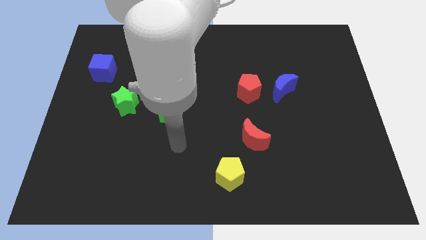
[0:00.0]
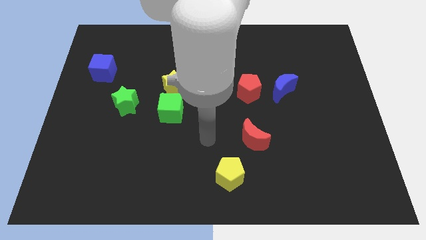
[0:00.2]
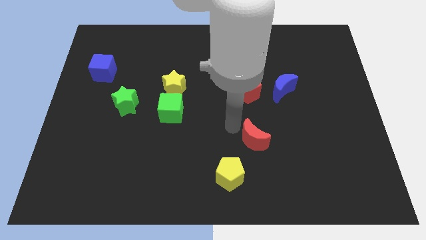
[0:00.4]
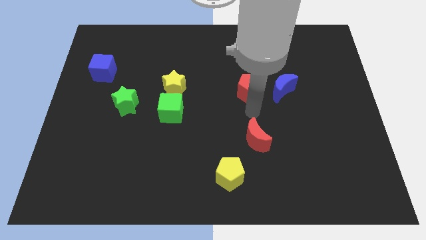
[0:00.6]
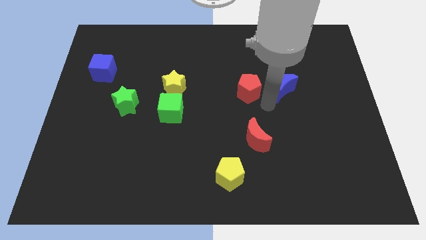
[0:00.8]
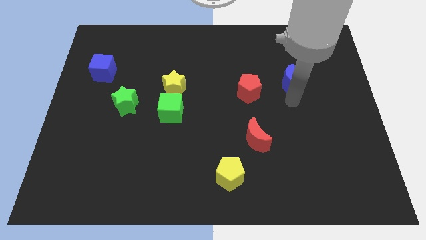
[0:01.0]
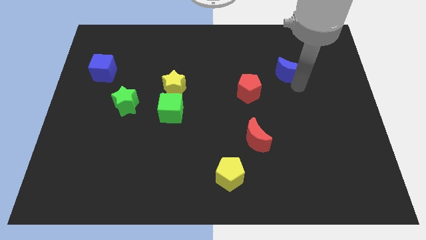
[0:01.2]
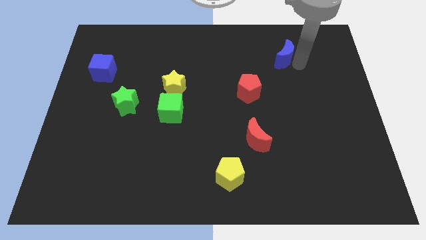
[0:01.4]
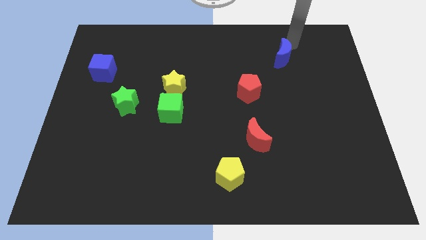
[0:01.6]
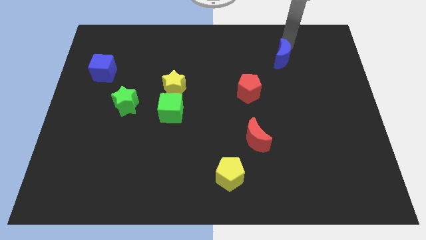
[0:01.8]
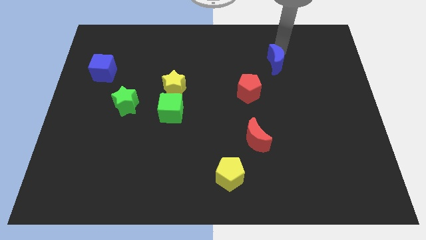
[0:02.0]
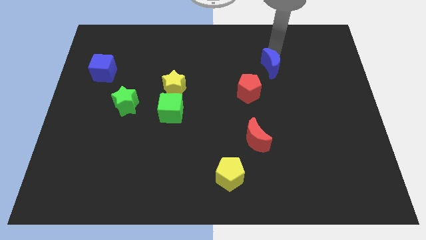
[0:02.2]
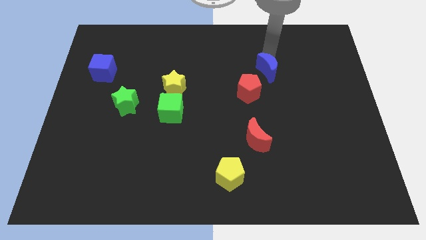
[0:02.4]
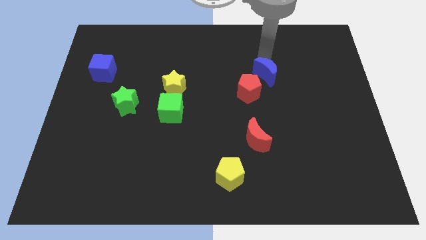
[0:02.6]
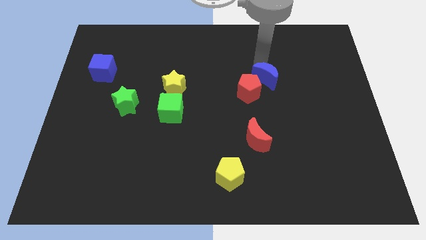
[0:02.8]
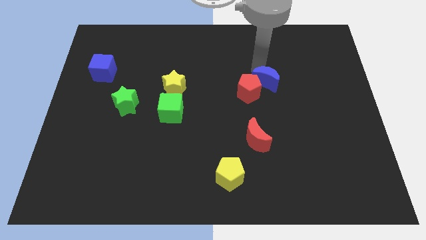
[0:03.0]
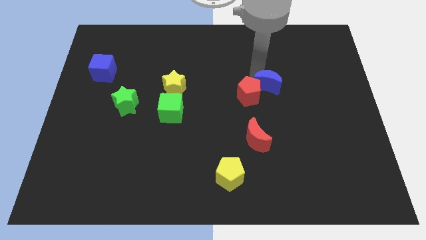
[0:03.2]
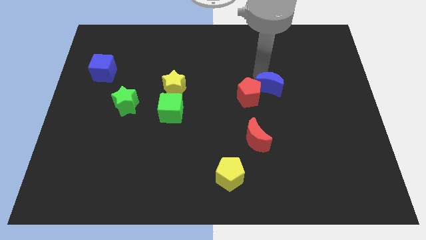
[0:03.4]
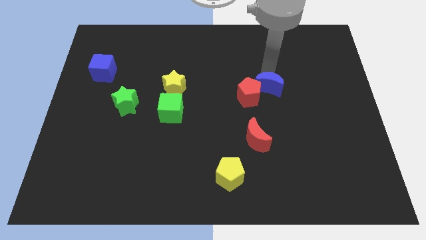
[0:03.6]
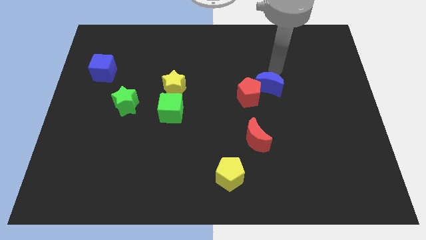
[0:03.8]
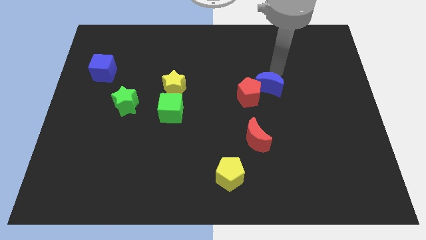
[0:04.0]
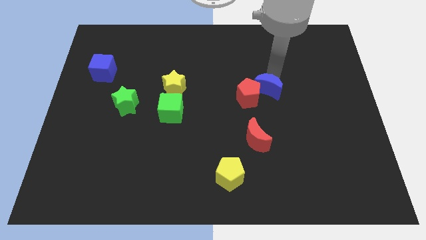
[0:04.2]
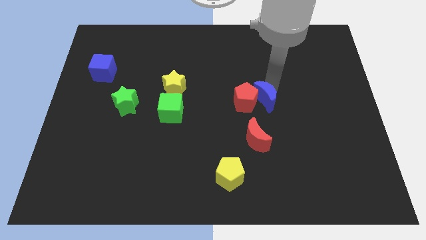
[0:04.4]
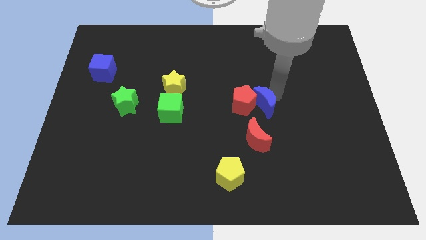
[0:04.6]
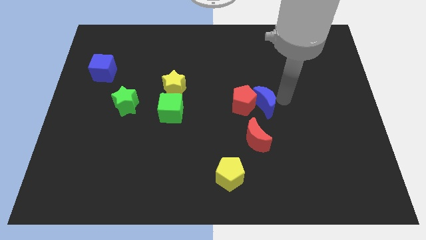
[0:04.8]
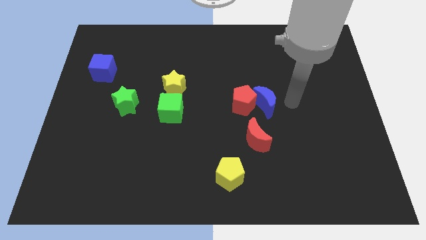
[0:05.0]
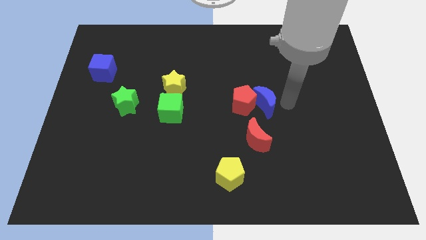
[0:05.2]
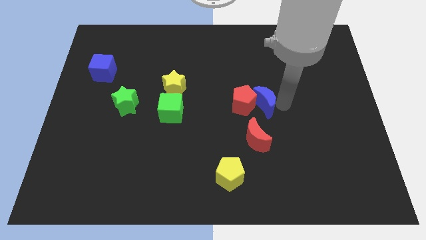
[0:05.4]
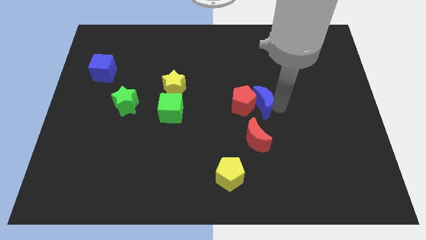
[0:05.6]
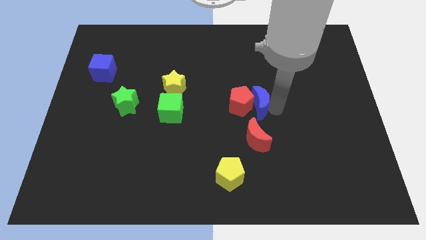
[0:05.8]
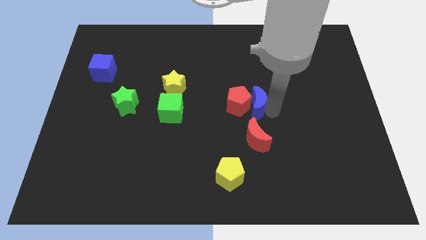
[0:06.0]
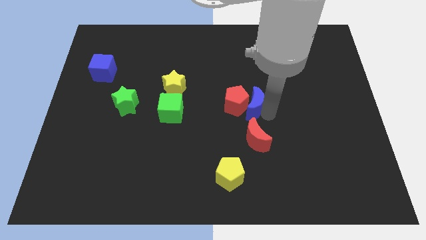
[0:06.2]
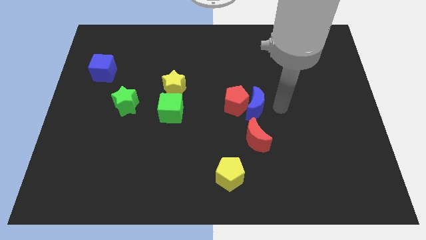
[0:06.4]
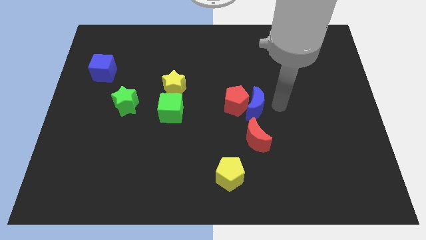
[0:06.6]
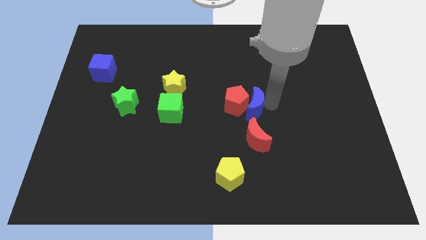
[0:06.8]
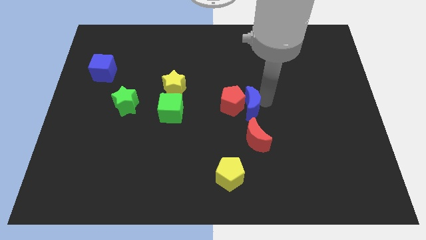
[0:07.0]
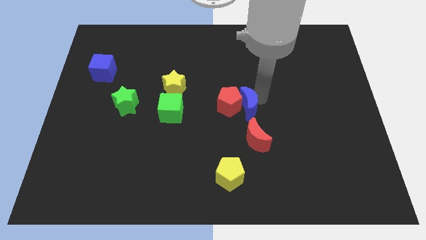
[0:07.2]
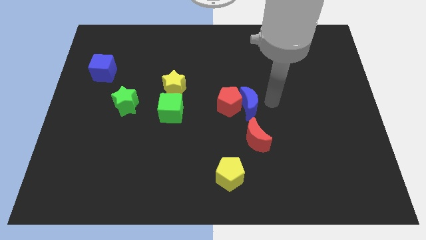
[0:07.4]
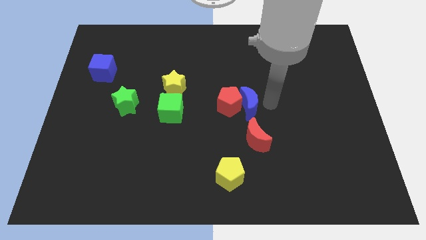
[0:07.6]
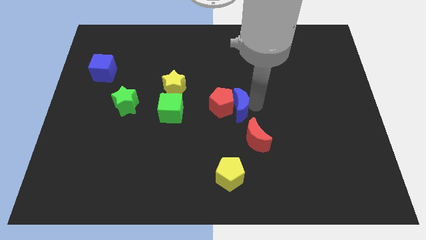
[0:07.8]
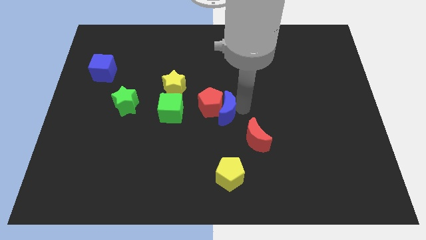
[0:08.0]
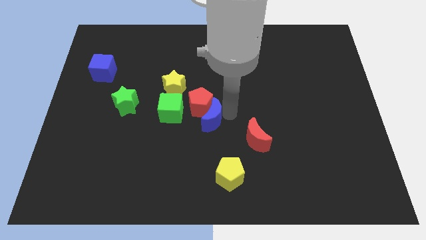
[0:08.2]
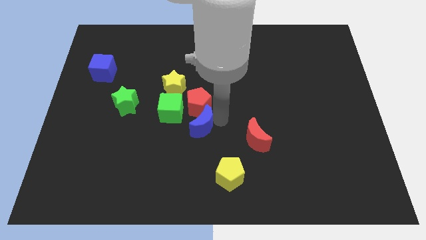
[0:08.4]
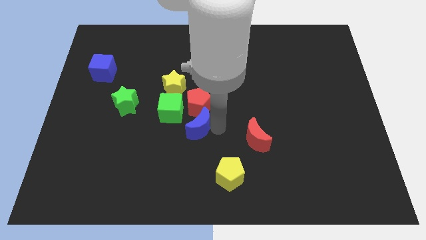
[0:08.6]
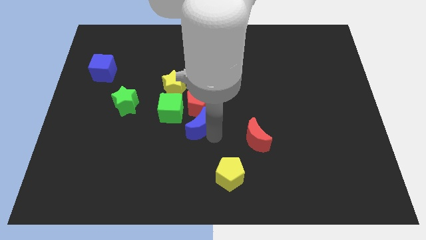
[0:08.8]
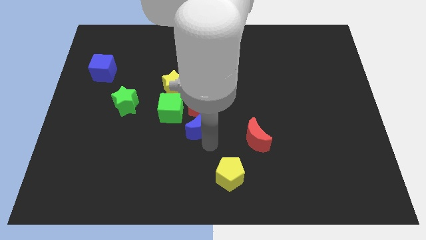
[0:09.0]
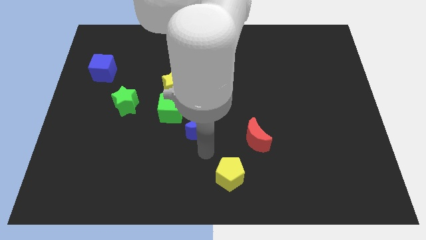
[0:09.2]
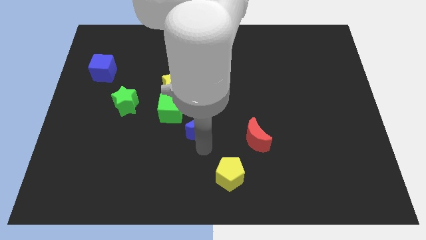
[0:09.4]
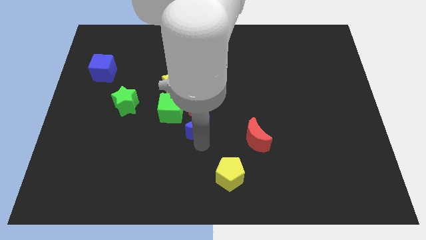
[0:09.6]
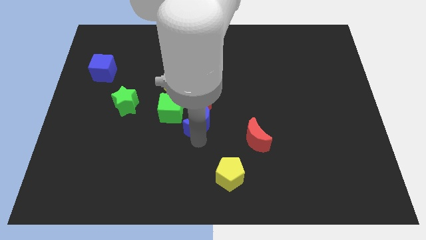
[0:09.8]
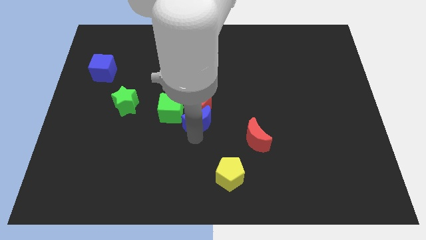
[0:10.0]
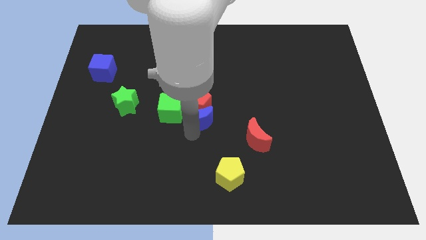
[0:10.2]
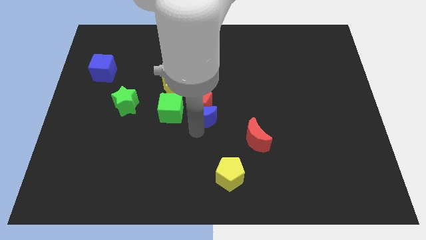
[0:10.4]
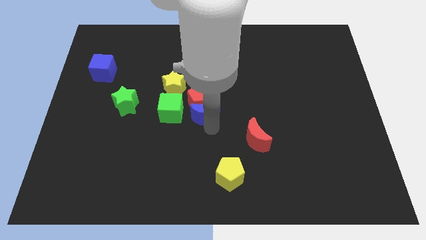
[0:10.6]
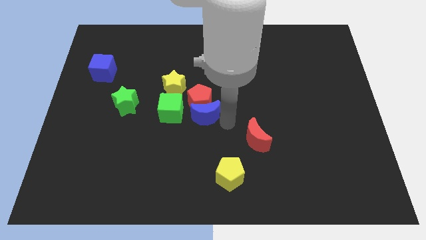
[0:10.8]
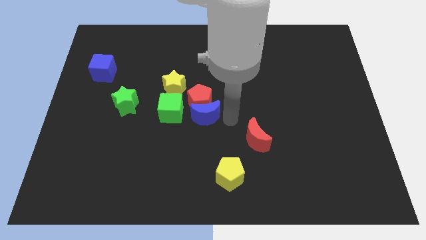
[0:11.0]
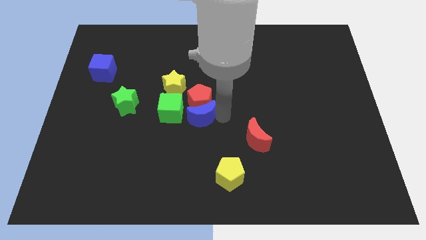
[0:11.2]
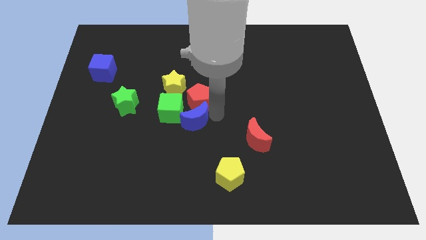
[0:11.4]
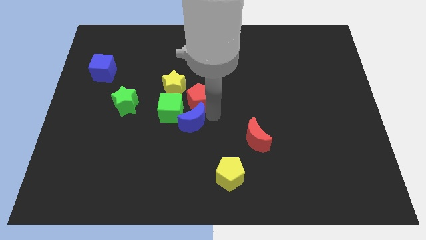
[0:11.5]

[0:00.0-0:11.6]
push the blue moon towards the green cube

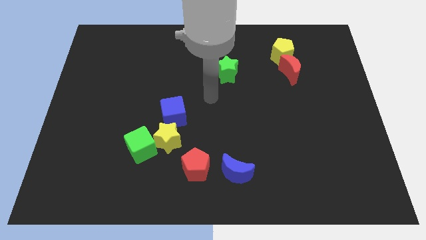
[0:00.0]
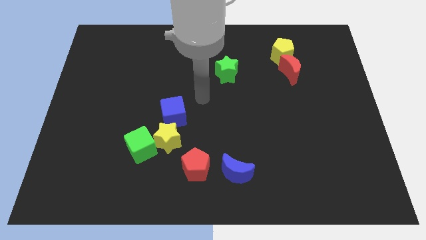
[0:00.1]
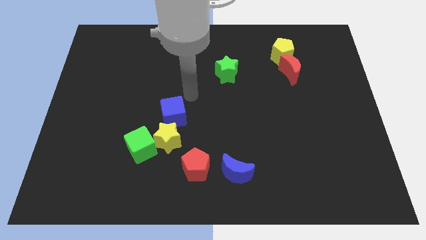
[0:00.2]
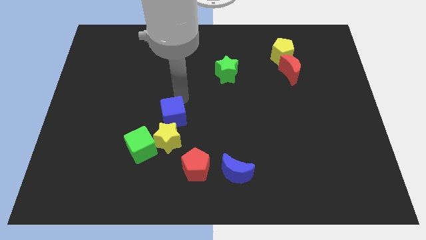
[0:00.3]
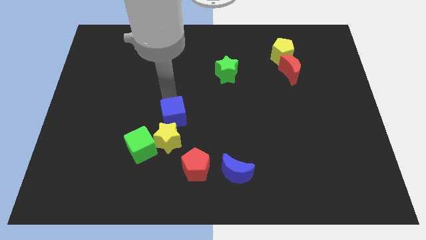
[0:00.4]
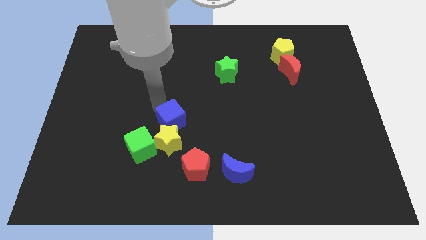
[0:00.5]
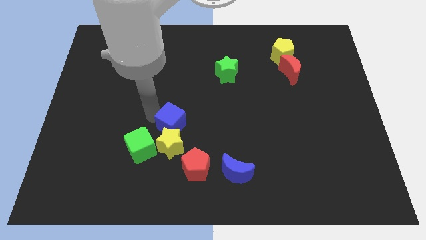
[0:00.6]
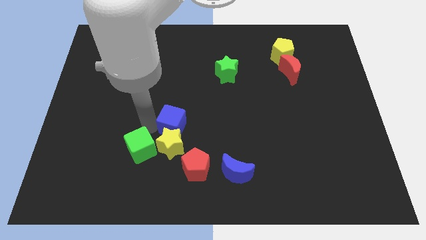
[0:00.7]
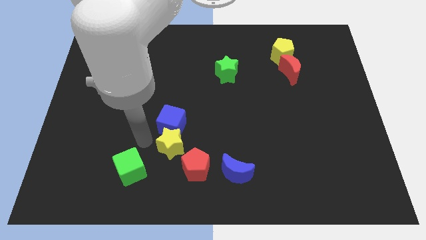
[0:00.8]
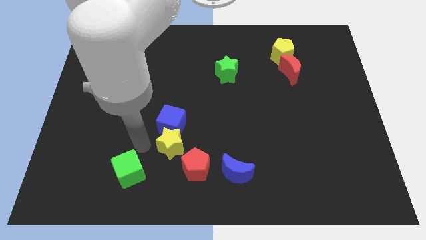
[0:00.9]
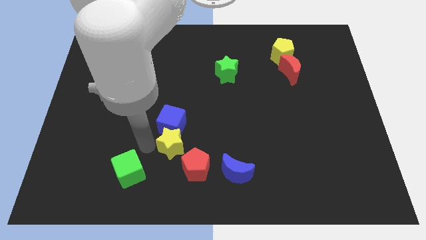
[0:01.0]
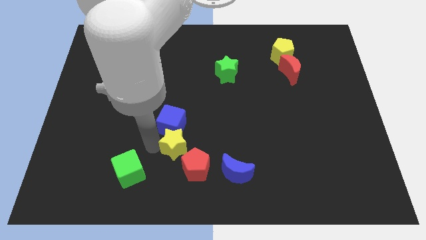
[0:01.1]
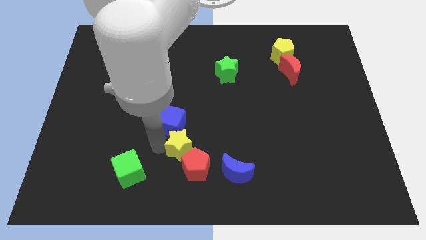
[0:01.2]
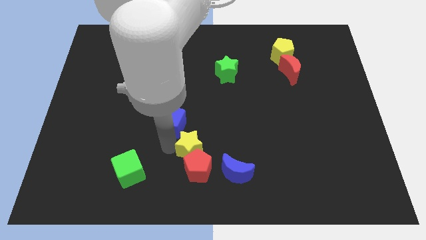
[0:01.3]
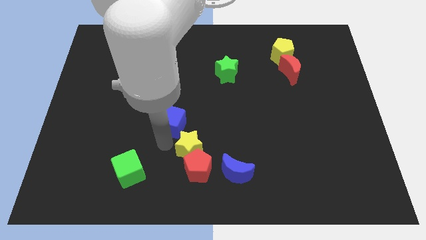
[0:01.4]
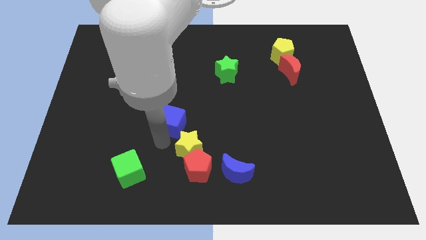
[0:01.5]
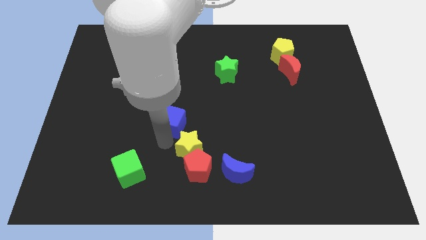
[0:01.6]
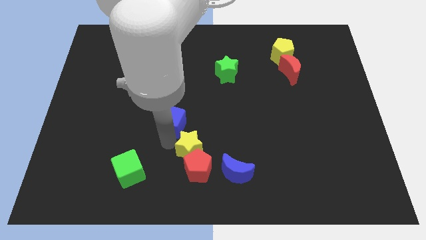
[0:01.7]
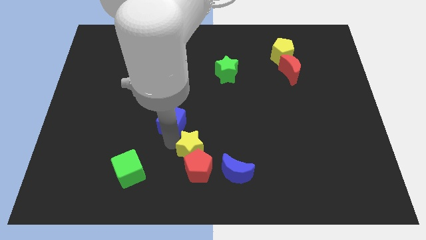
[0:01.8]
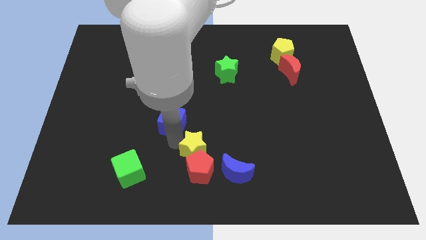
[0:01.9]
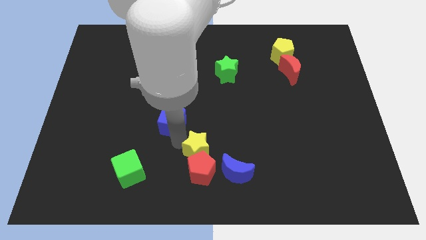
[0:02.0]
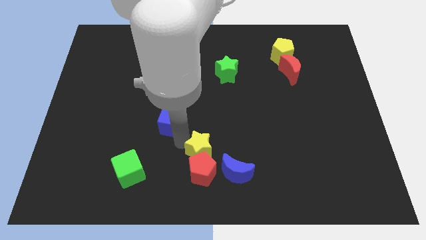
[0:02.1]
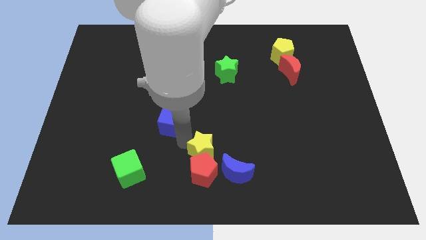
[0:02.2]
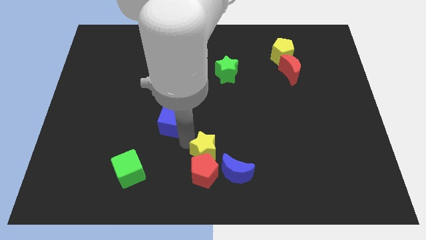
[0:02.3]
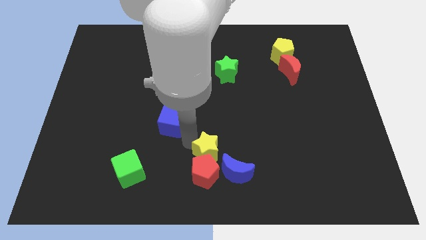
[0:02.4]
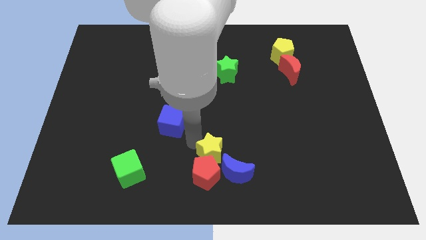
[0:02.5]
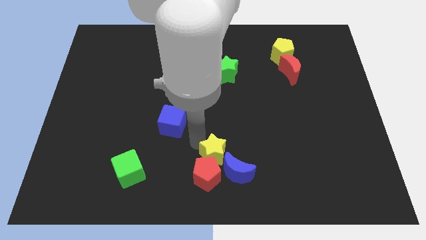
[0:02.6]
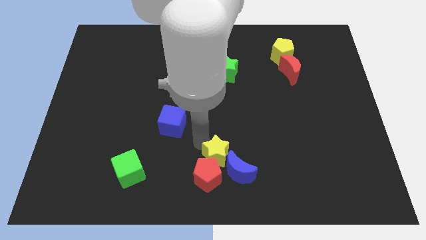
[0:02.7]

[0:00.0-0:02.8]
put the yellow star towards the blue moon
